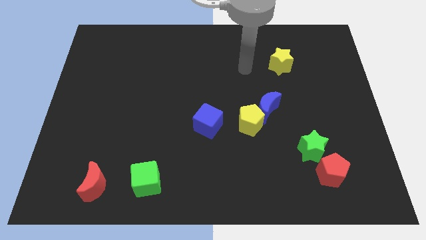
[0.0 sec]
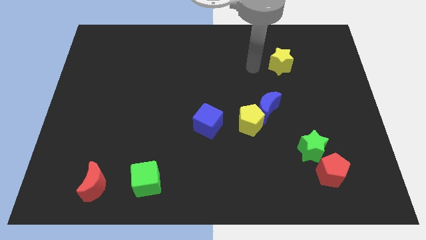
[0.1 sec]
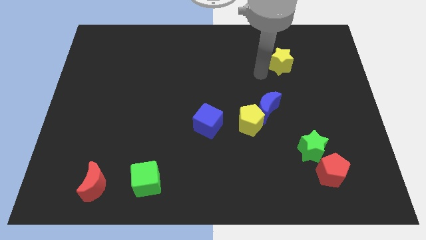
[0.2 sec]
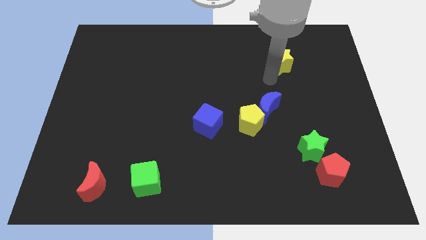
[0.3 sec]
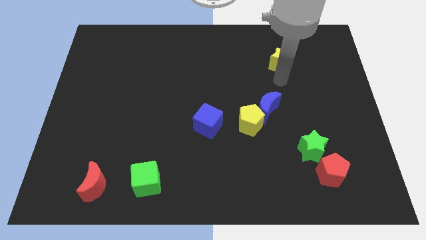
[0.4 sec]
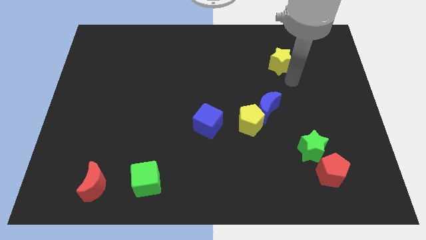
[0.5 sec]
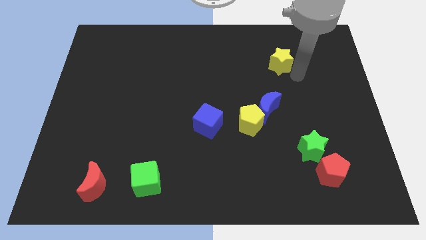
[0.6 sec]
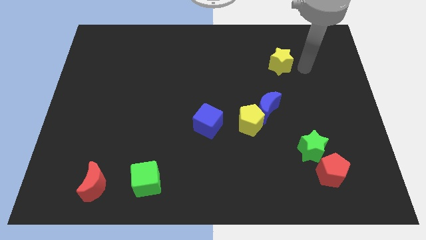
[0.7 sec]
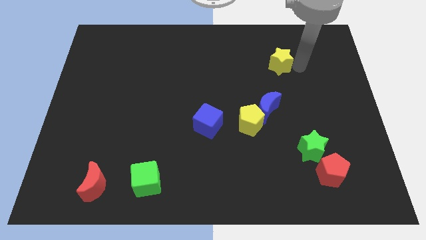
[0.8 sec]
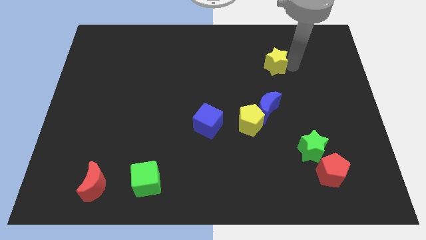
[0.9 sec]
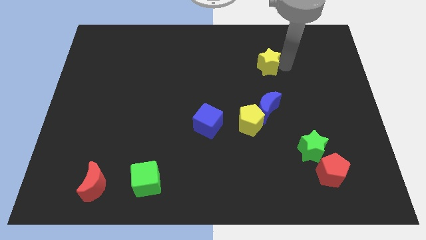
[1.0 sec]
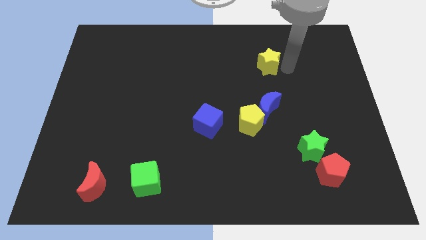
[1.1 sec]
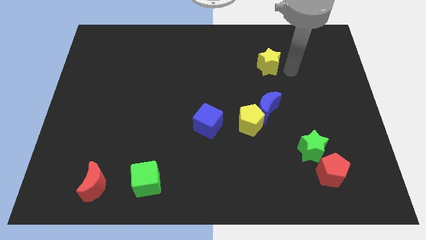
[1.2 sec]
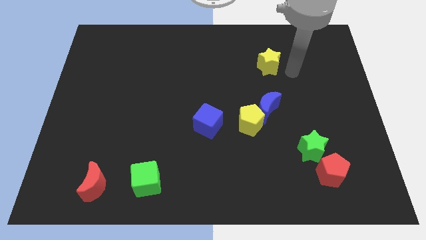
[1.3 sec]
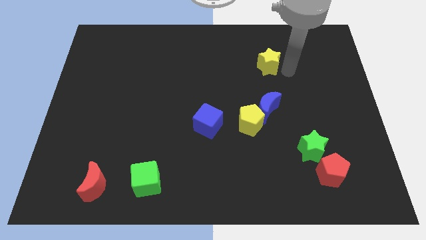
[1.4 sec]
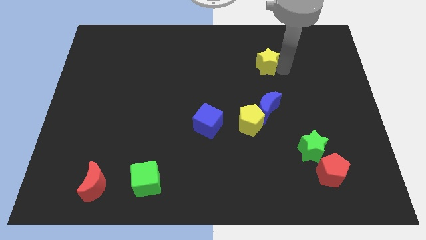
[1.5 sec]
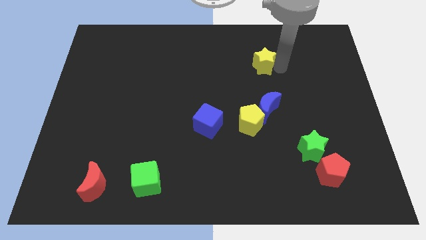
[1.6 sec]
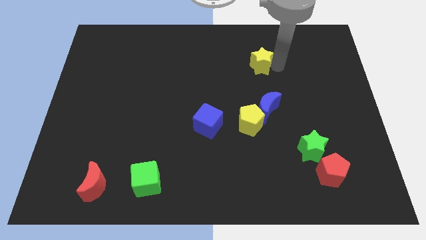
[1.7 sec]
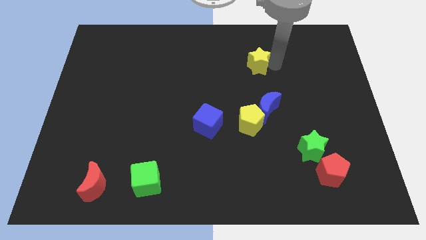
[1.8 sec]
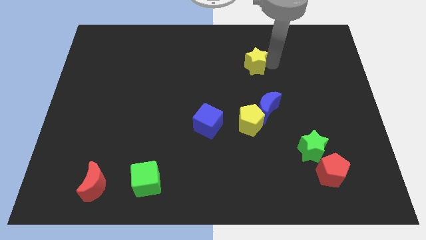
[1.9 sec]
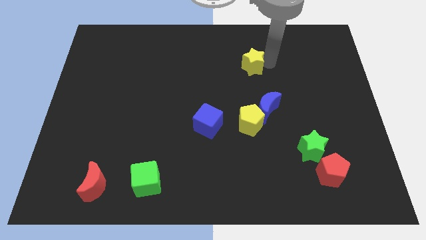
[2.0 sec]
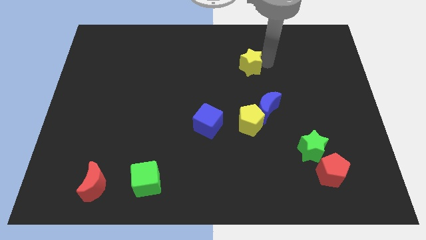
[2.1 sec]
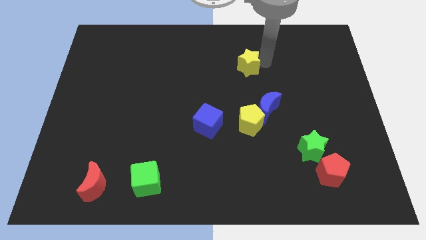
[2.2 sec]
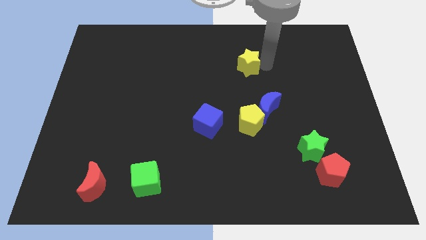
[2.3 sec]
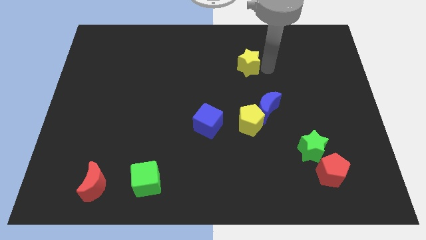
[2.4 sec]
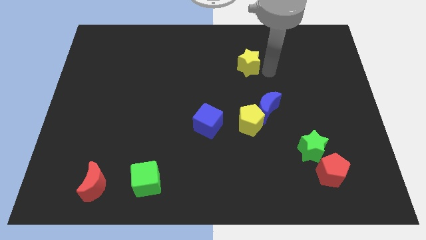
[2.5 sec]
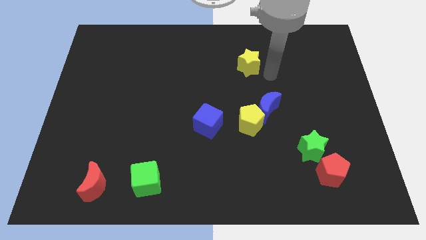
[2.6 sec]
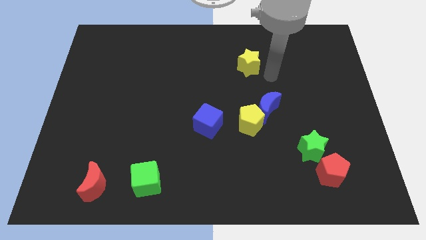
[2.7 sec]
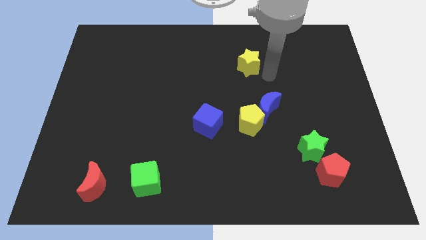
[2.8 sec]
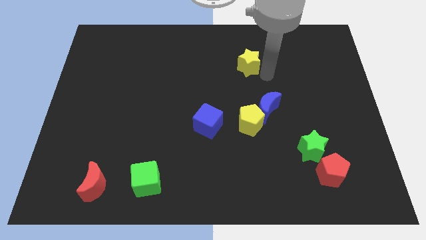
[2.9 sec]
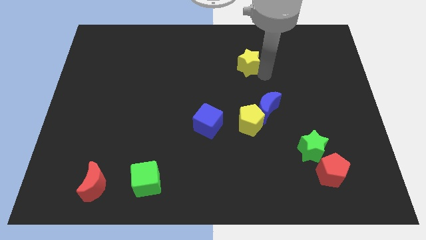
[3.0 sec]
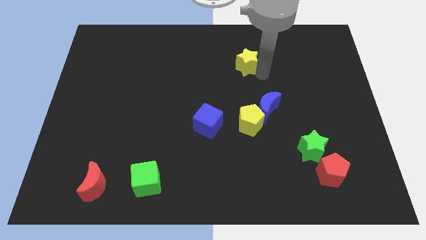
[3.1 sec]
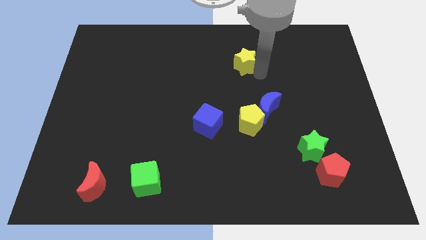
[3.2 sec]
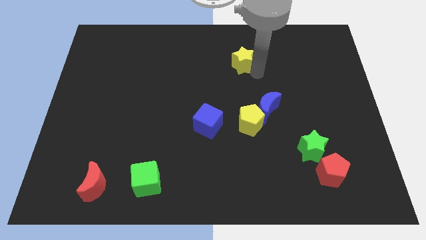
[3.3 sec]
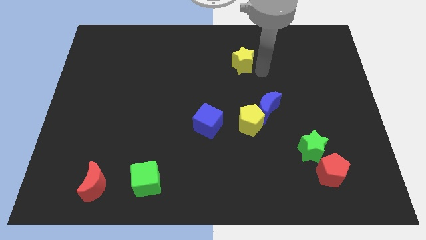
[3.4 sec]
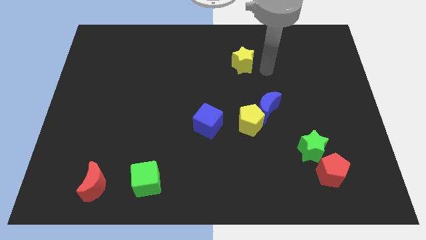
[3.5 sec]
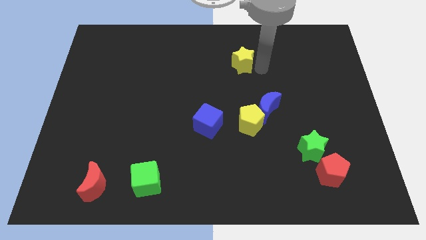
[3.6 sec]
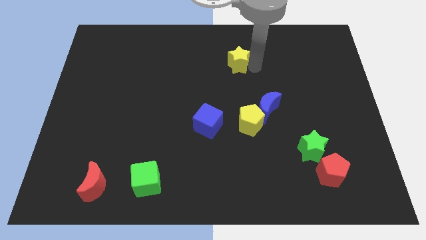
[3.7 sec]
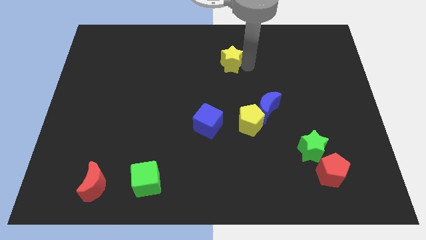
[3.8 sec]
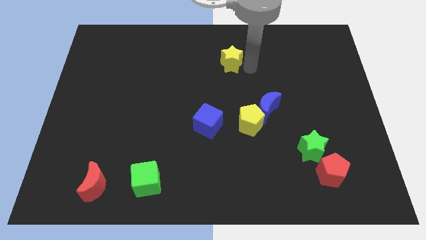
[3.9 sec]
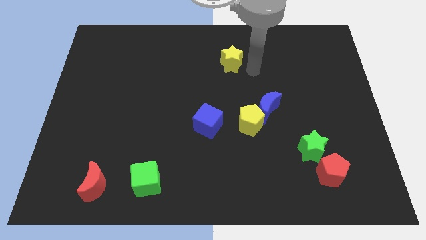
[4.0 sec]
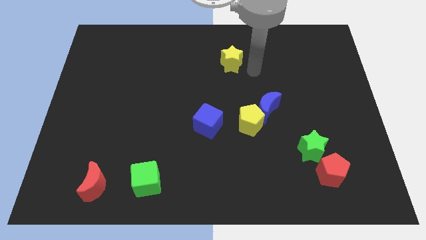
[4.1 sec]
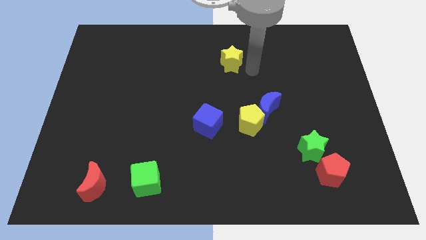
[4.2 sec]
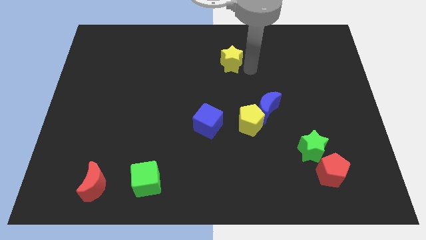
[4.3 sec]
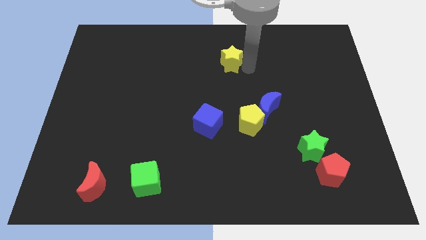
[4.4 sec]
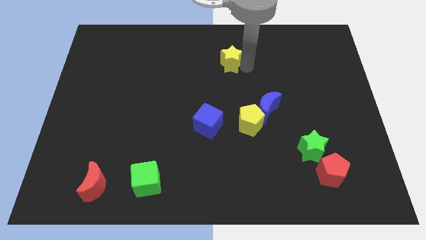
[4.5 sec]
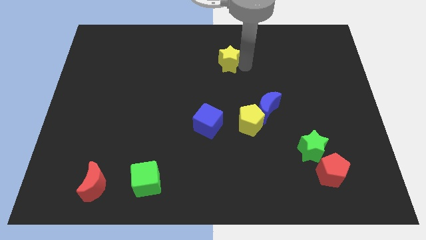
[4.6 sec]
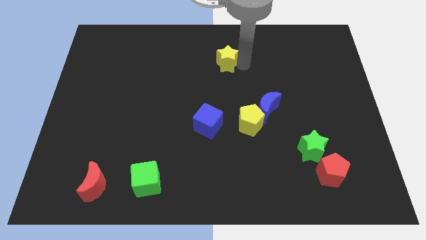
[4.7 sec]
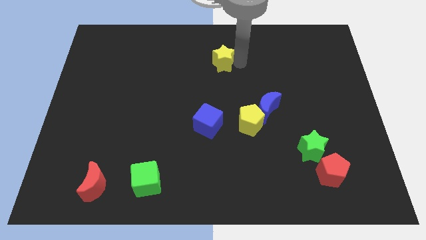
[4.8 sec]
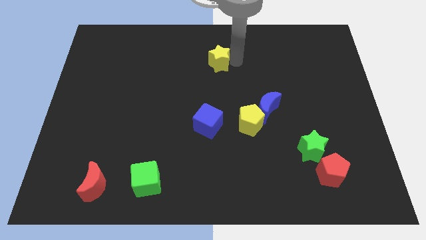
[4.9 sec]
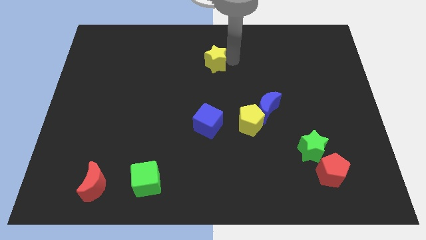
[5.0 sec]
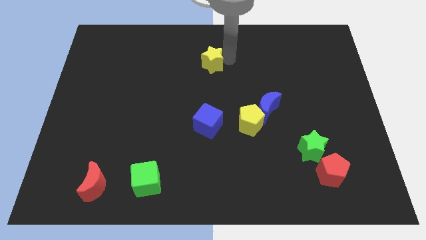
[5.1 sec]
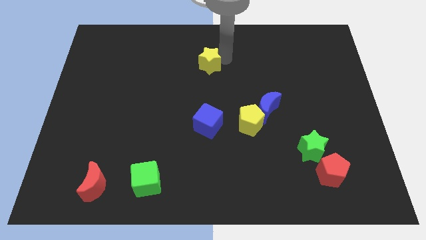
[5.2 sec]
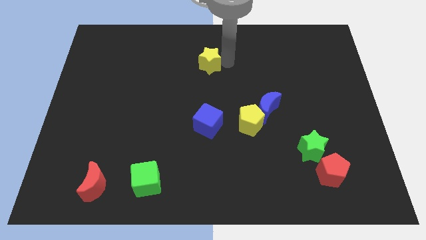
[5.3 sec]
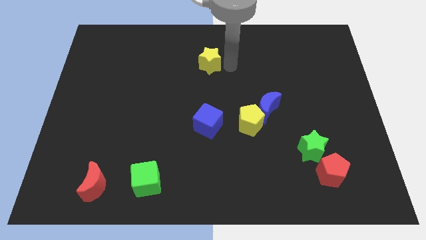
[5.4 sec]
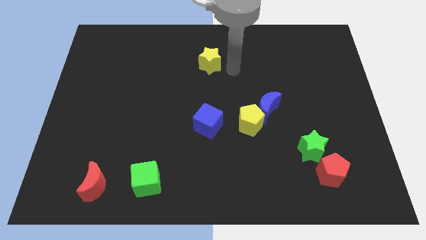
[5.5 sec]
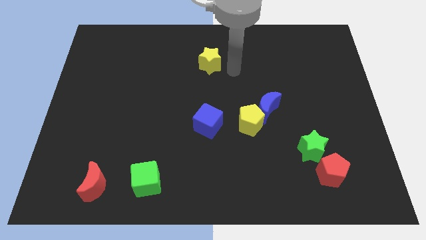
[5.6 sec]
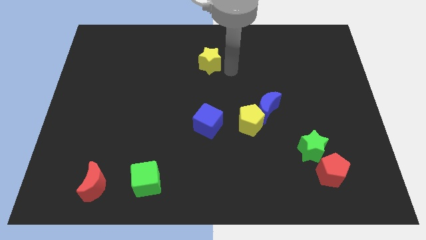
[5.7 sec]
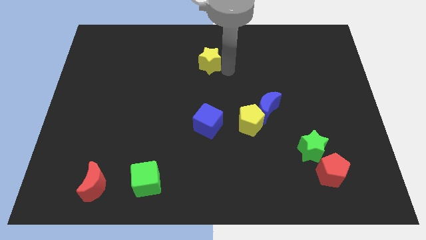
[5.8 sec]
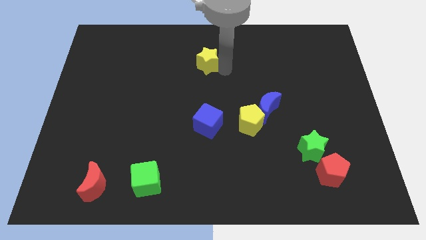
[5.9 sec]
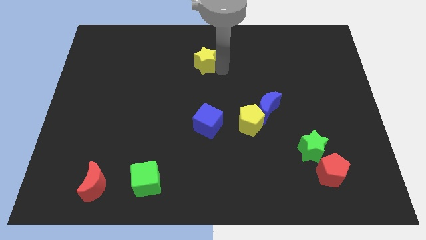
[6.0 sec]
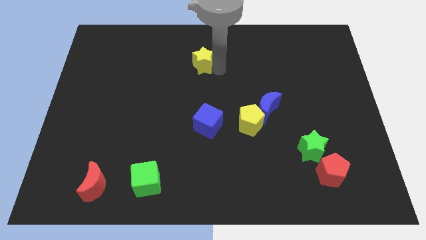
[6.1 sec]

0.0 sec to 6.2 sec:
move the yellow star left

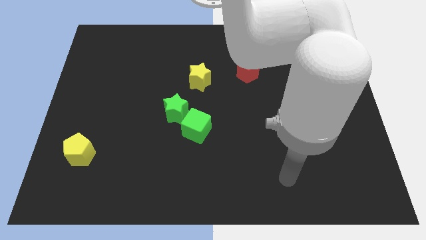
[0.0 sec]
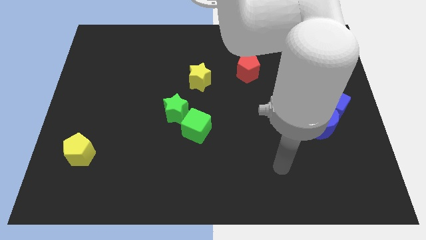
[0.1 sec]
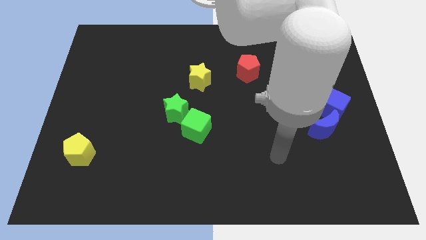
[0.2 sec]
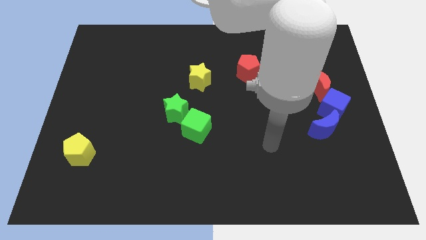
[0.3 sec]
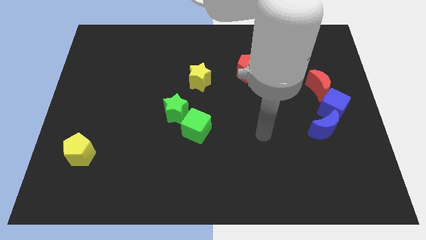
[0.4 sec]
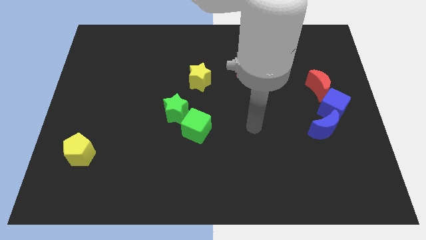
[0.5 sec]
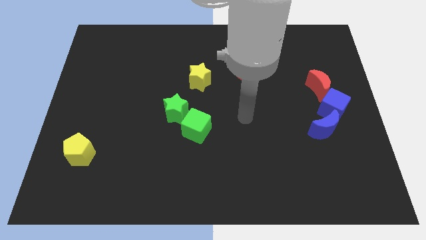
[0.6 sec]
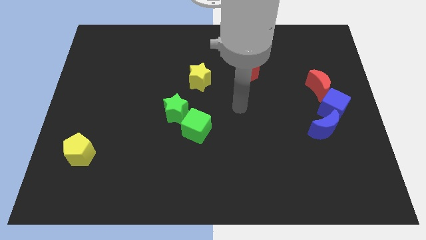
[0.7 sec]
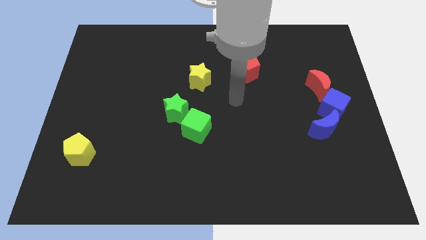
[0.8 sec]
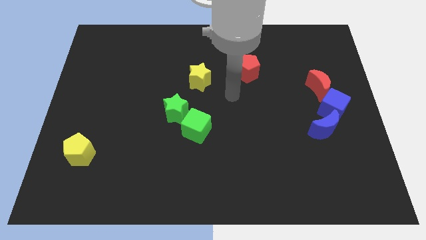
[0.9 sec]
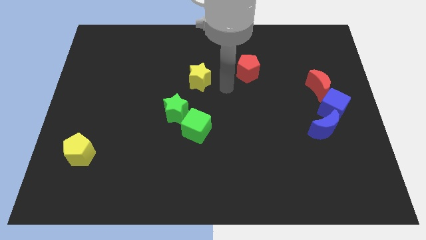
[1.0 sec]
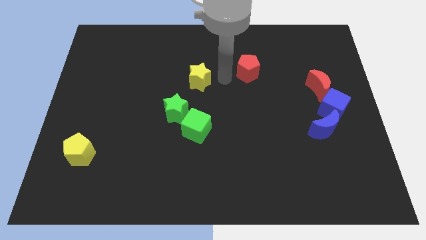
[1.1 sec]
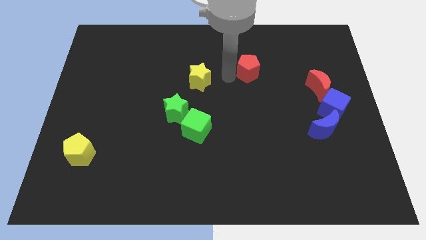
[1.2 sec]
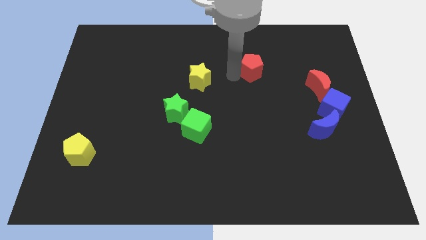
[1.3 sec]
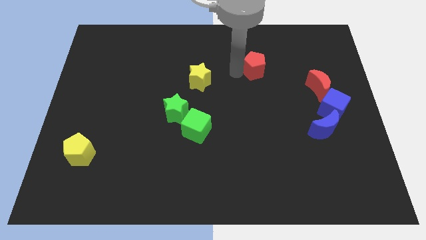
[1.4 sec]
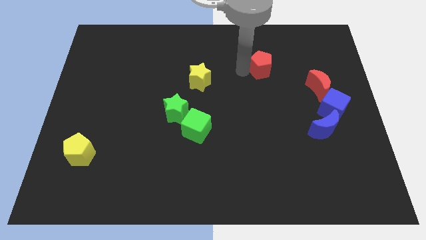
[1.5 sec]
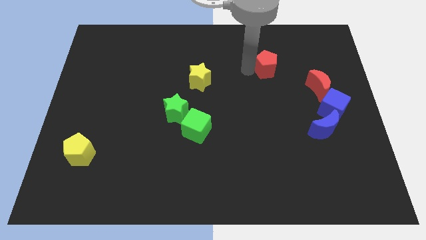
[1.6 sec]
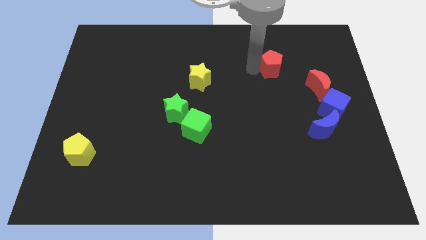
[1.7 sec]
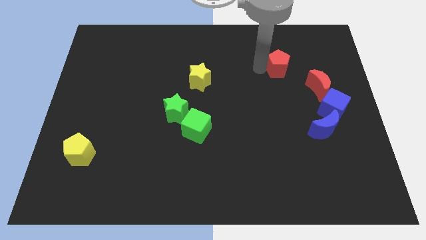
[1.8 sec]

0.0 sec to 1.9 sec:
move the red pentagon right a bit

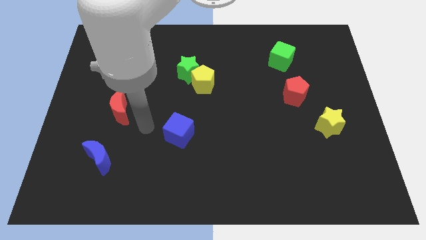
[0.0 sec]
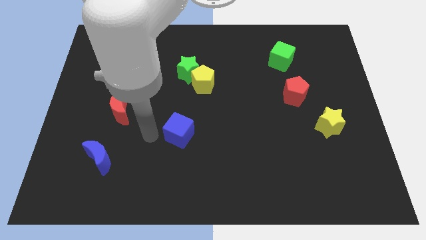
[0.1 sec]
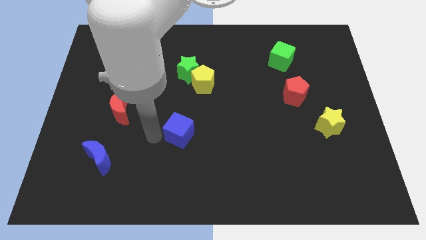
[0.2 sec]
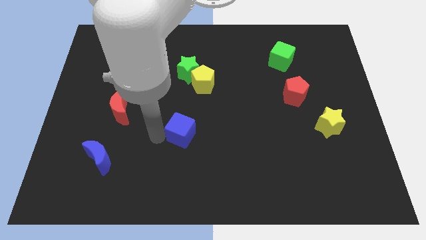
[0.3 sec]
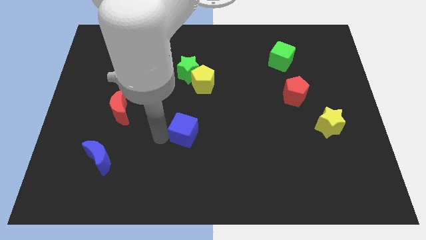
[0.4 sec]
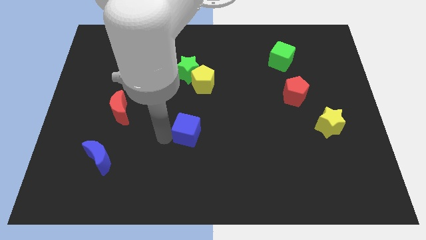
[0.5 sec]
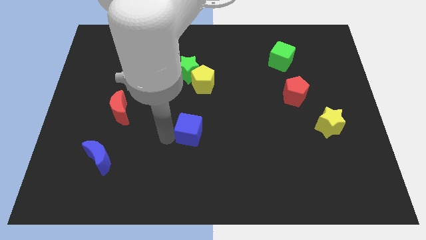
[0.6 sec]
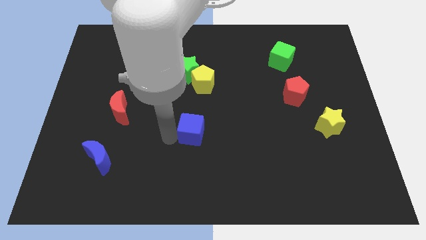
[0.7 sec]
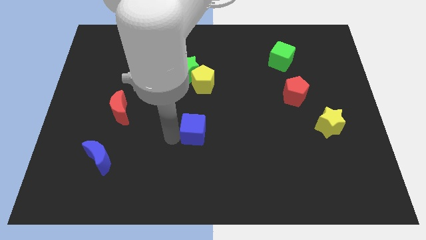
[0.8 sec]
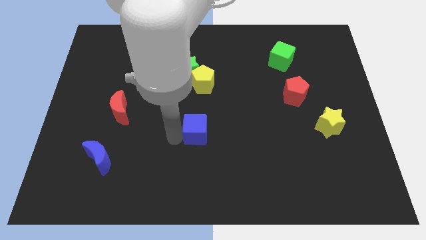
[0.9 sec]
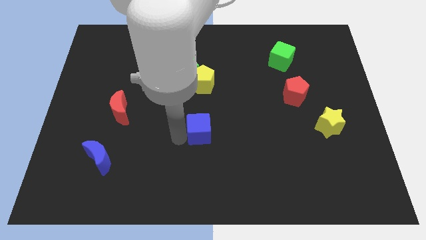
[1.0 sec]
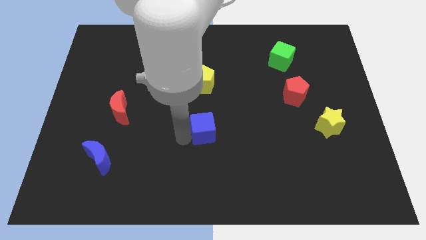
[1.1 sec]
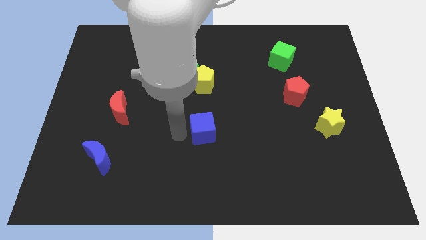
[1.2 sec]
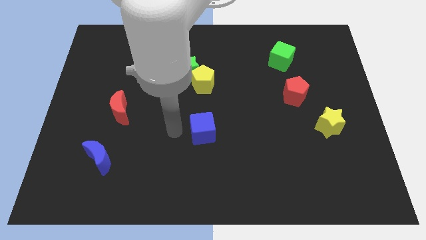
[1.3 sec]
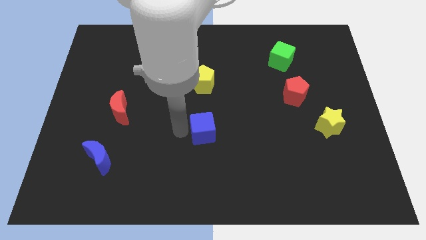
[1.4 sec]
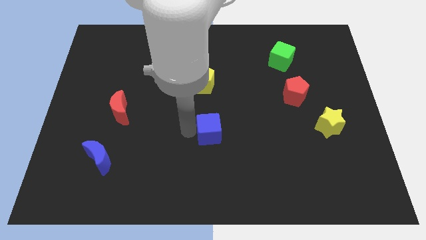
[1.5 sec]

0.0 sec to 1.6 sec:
move the blue cube somewhat right
